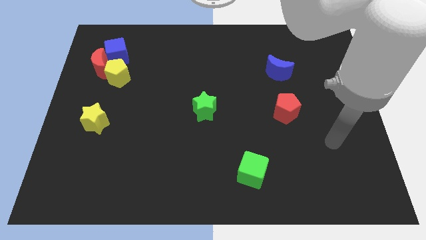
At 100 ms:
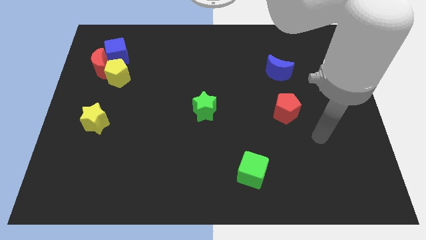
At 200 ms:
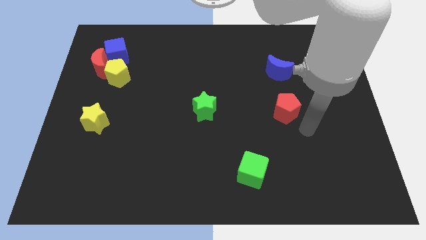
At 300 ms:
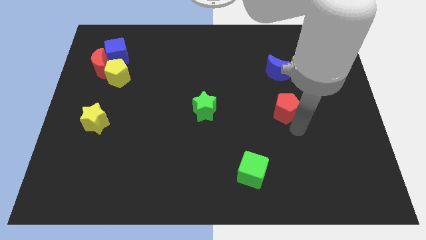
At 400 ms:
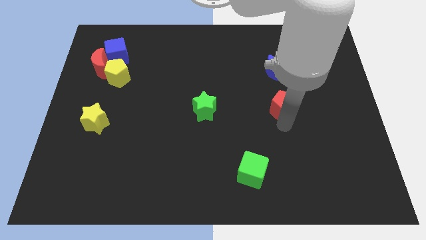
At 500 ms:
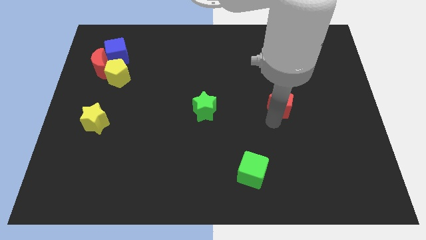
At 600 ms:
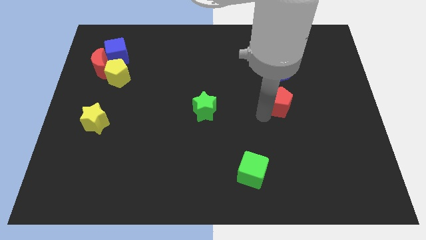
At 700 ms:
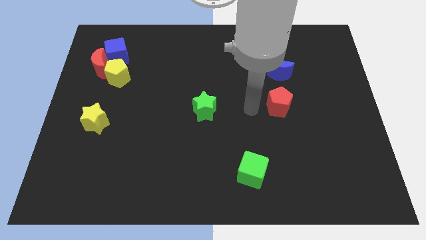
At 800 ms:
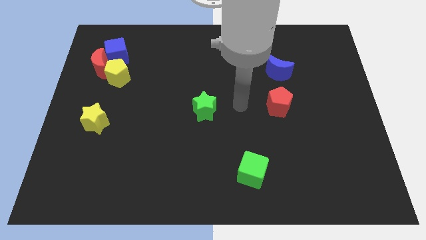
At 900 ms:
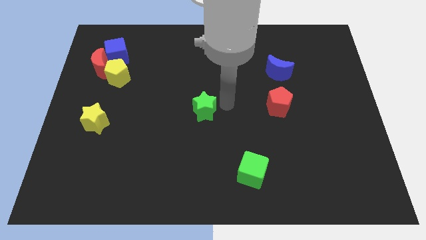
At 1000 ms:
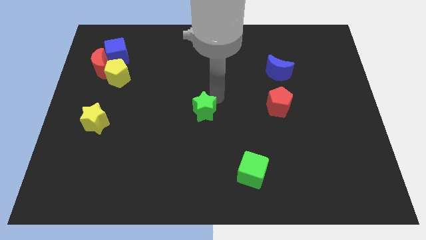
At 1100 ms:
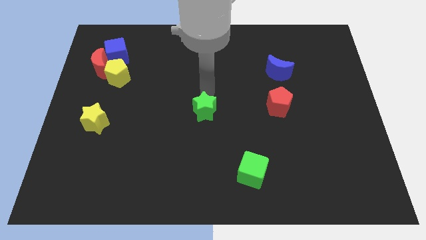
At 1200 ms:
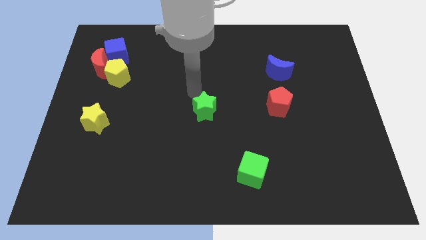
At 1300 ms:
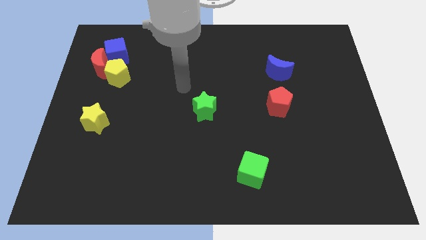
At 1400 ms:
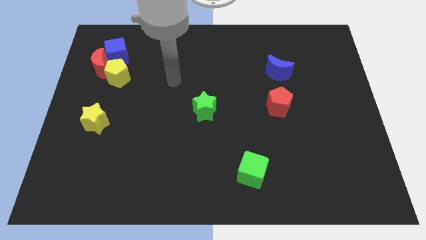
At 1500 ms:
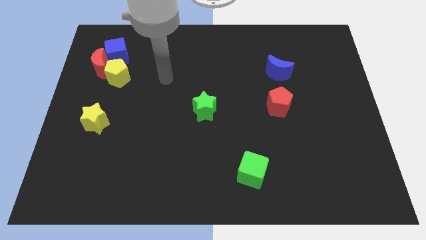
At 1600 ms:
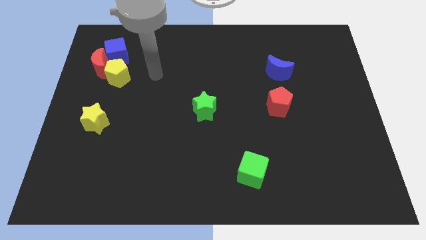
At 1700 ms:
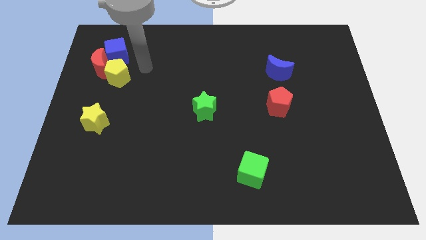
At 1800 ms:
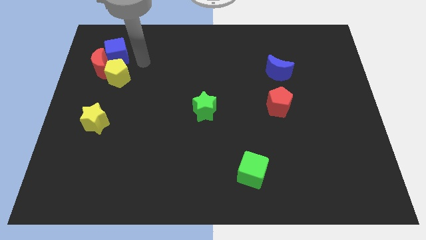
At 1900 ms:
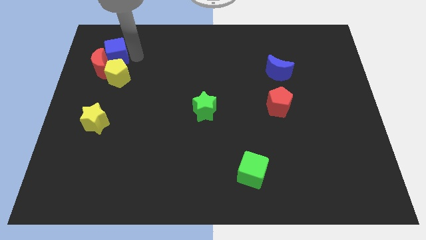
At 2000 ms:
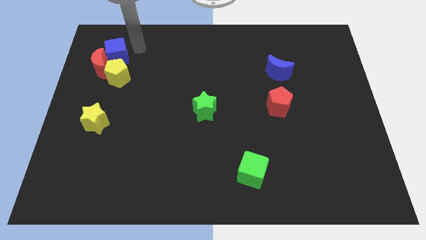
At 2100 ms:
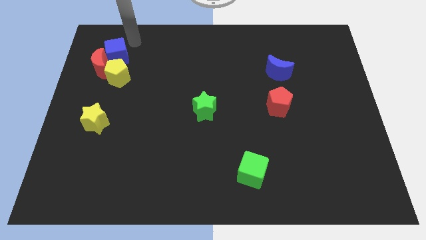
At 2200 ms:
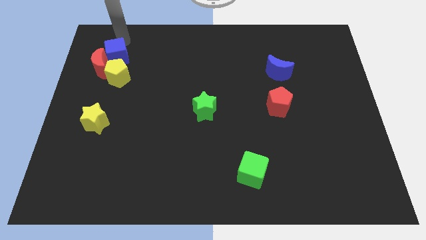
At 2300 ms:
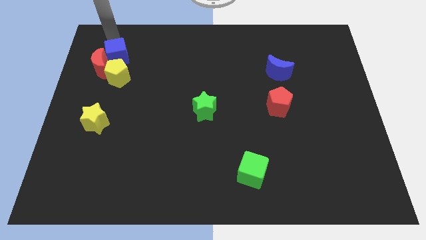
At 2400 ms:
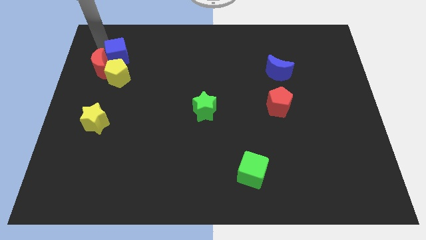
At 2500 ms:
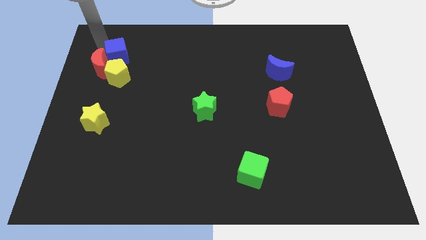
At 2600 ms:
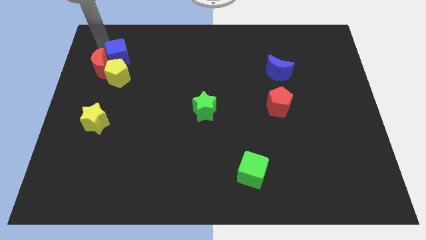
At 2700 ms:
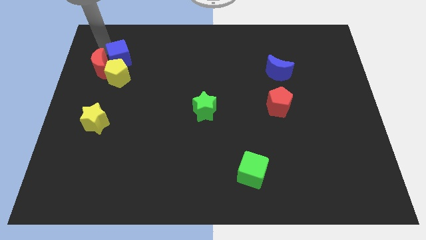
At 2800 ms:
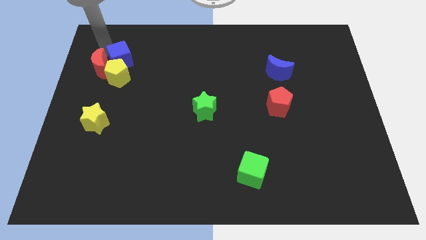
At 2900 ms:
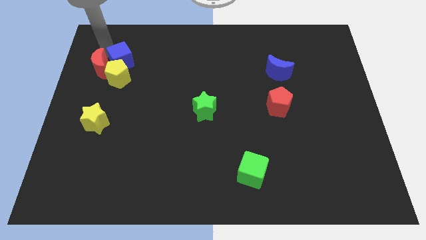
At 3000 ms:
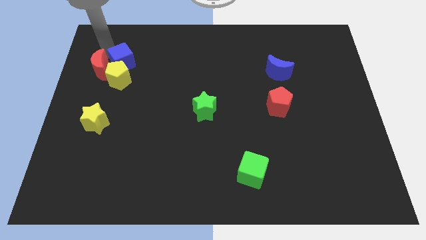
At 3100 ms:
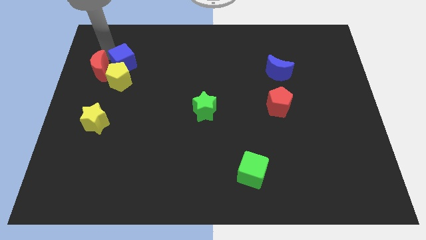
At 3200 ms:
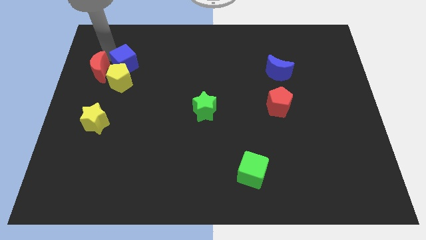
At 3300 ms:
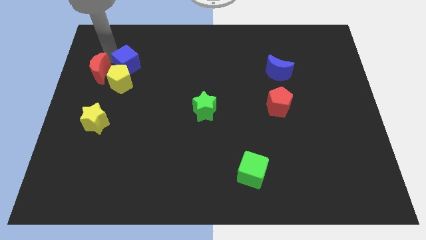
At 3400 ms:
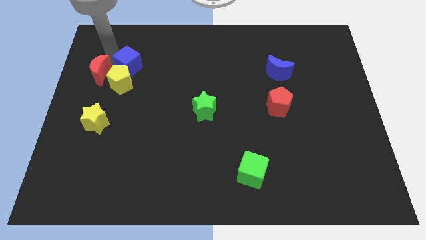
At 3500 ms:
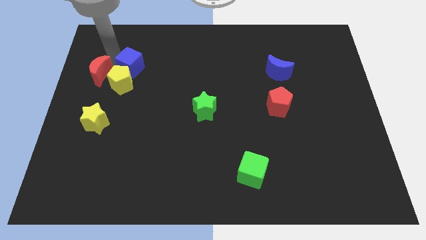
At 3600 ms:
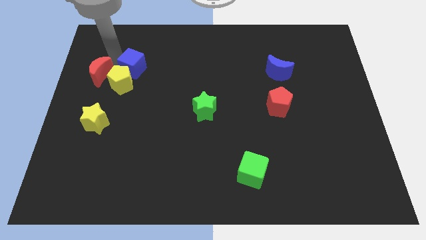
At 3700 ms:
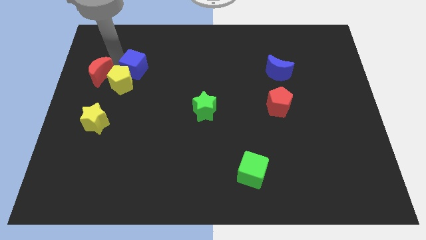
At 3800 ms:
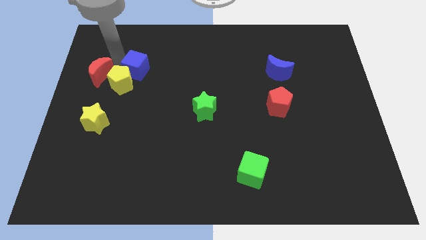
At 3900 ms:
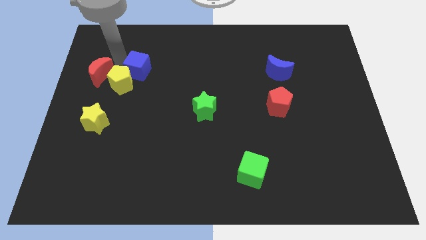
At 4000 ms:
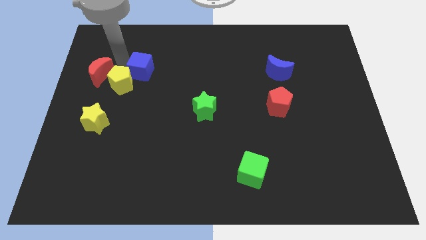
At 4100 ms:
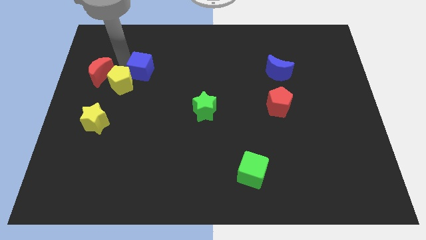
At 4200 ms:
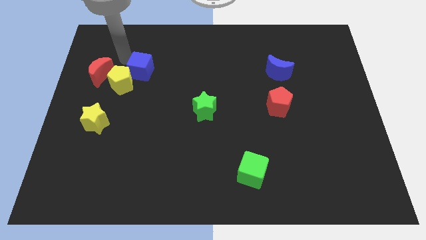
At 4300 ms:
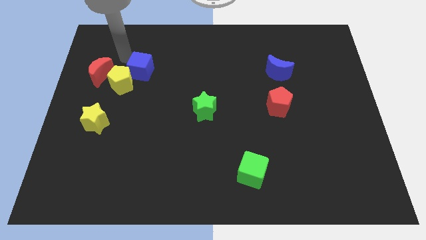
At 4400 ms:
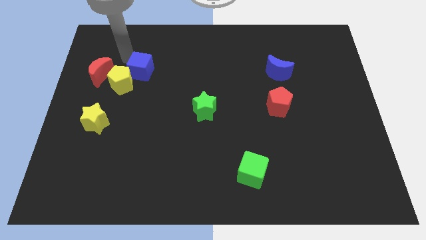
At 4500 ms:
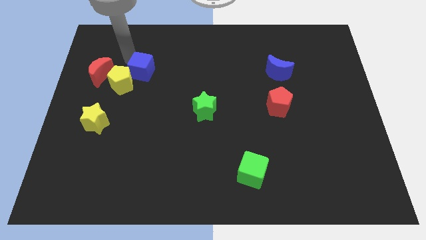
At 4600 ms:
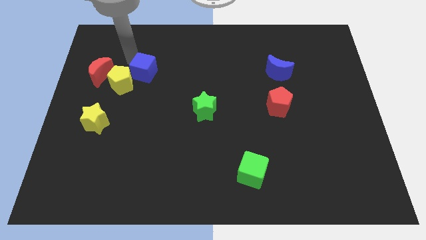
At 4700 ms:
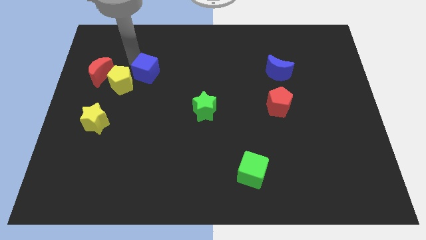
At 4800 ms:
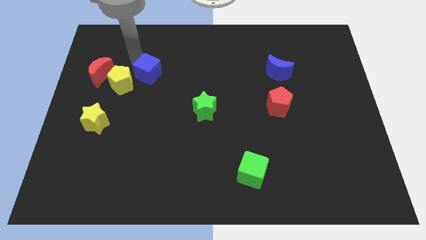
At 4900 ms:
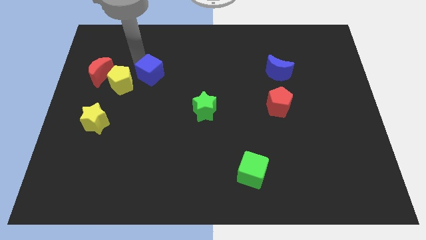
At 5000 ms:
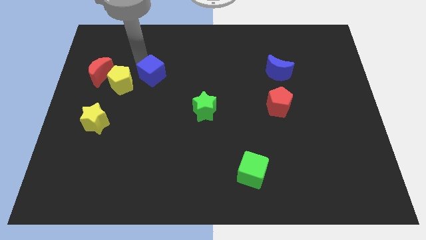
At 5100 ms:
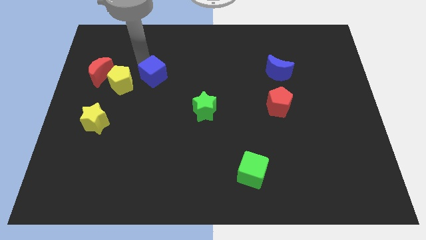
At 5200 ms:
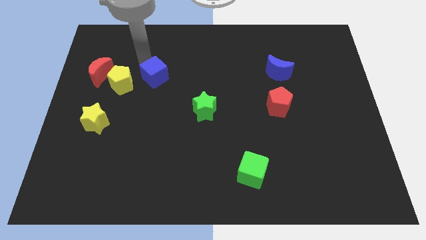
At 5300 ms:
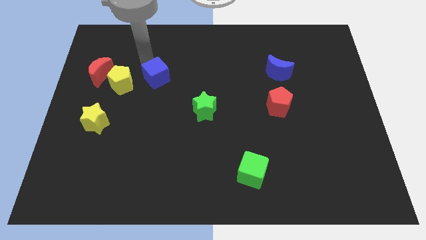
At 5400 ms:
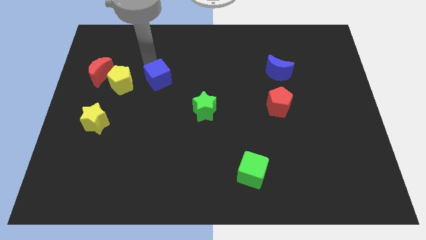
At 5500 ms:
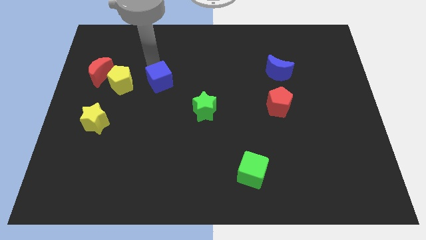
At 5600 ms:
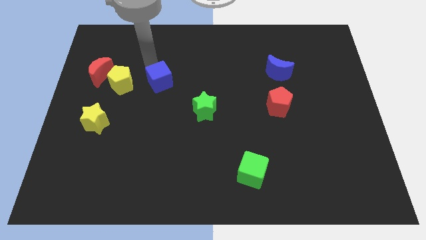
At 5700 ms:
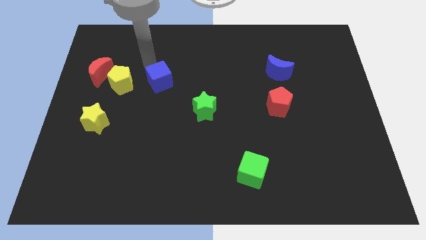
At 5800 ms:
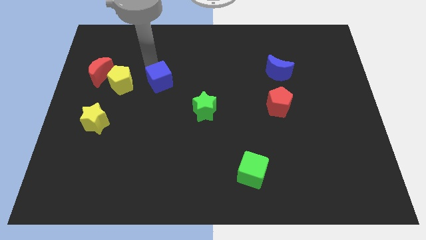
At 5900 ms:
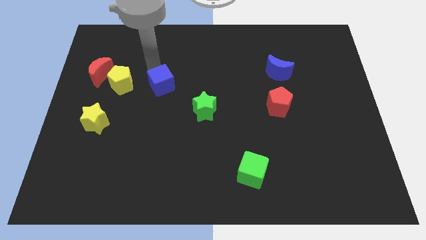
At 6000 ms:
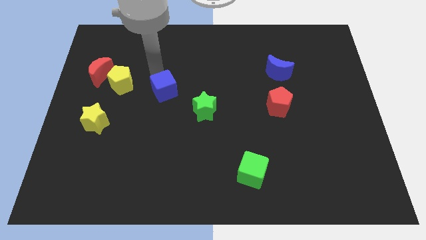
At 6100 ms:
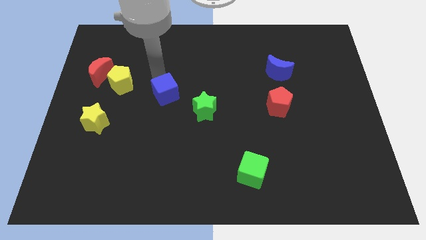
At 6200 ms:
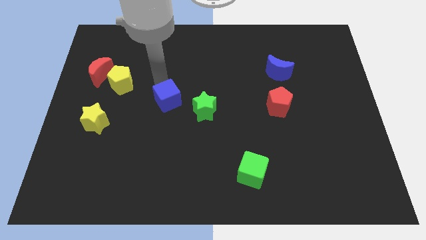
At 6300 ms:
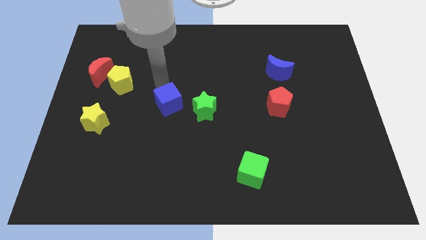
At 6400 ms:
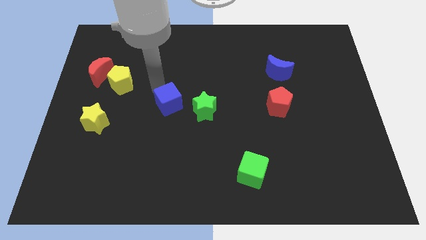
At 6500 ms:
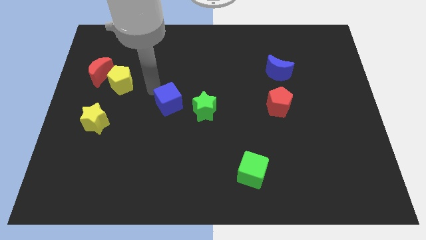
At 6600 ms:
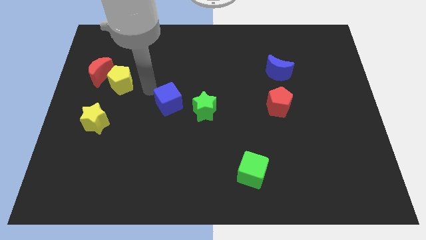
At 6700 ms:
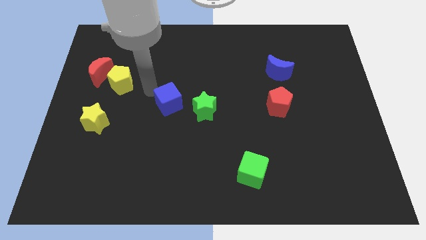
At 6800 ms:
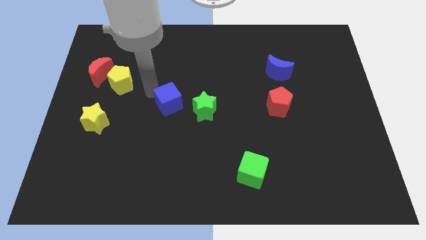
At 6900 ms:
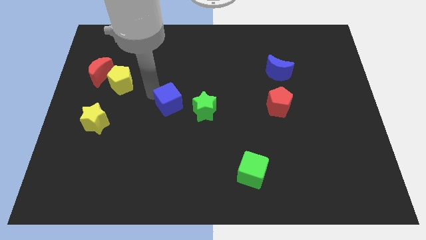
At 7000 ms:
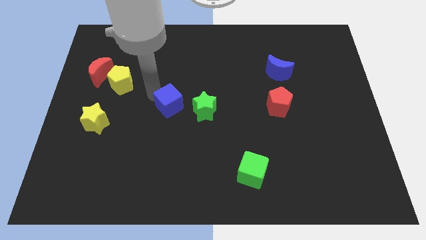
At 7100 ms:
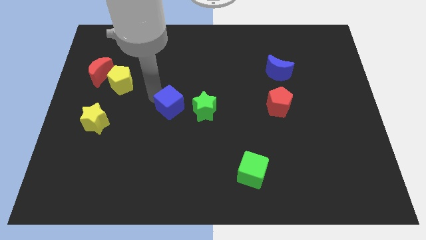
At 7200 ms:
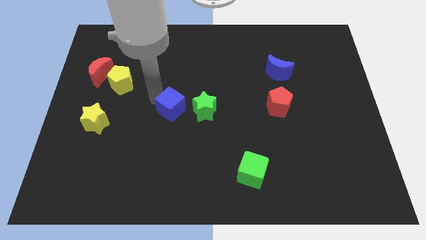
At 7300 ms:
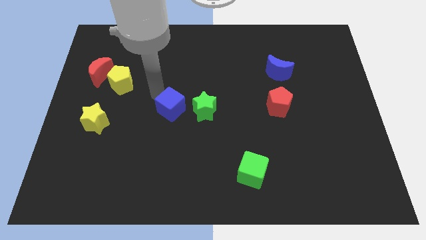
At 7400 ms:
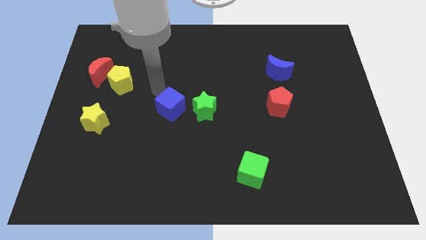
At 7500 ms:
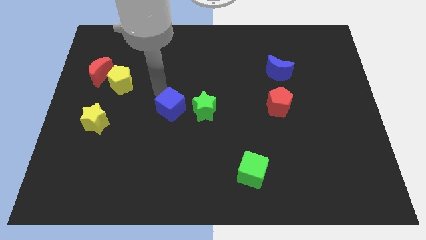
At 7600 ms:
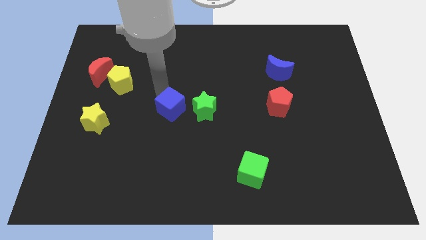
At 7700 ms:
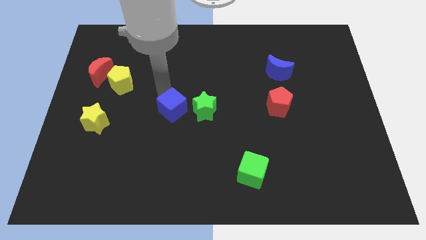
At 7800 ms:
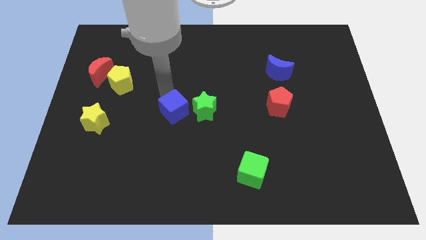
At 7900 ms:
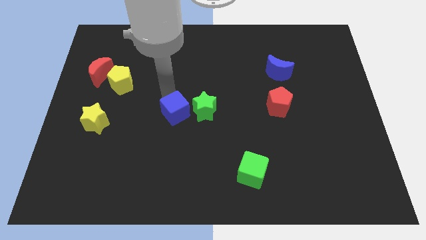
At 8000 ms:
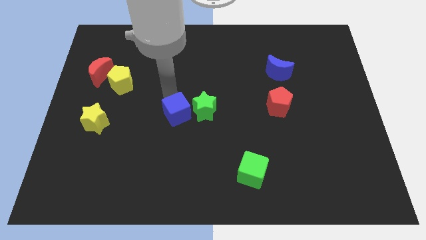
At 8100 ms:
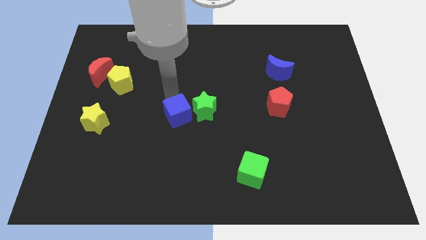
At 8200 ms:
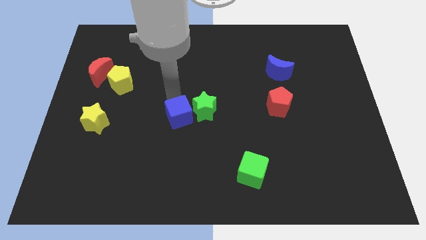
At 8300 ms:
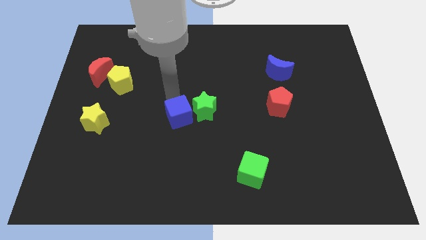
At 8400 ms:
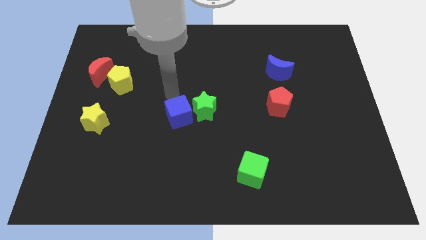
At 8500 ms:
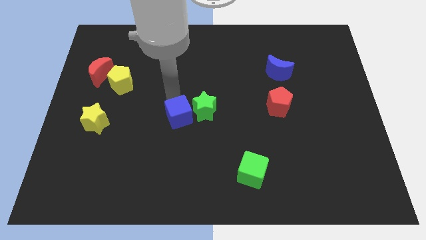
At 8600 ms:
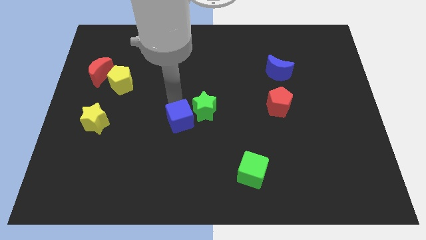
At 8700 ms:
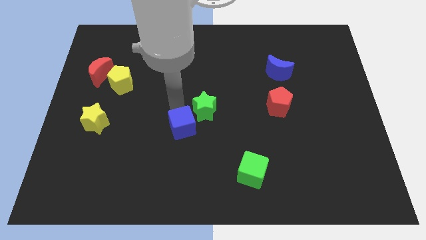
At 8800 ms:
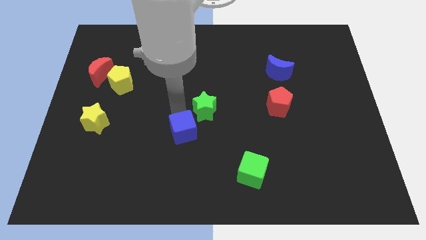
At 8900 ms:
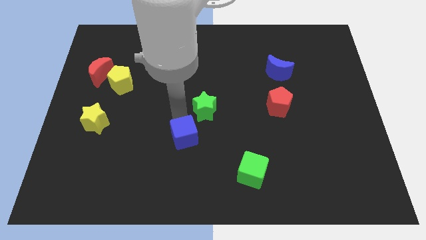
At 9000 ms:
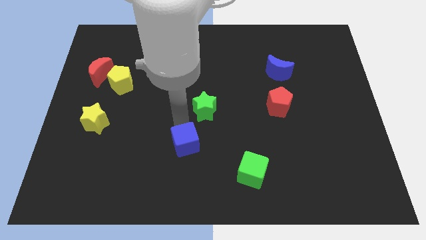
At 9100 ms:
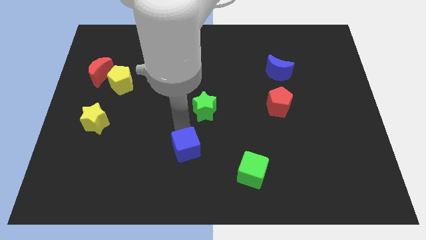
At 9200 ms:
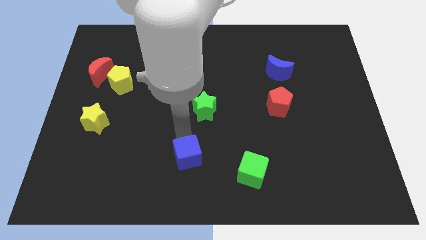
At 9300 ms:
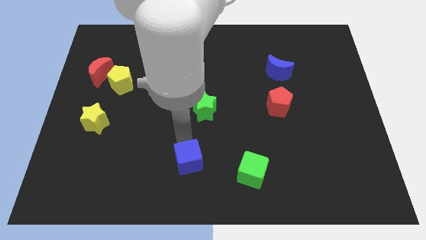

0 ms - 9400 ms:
move the blue cube to the bottom
